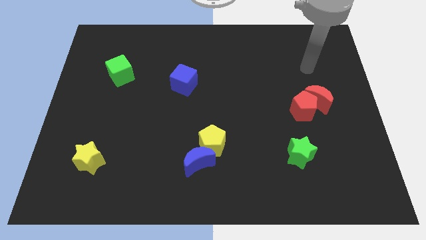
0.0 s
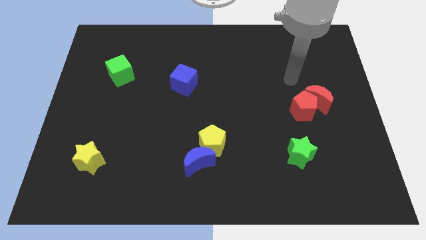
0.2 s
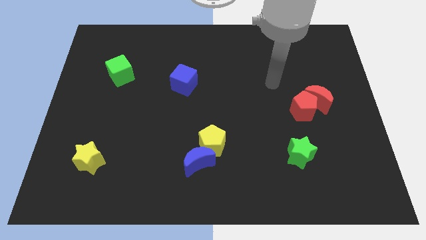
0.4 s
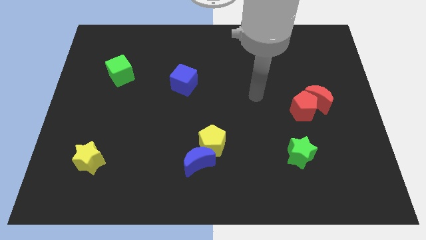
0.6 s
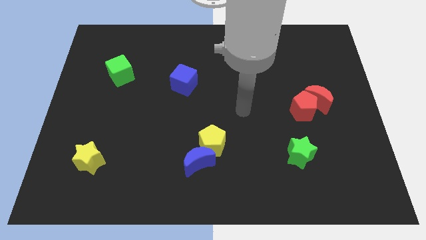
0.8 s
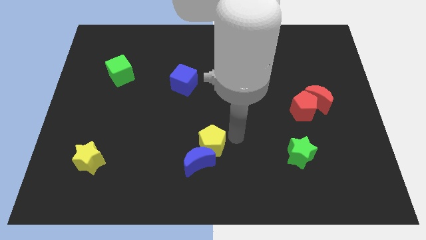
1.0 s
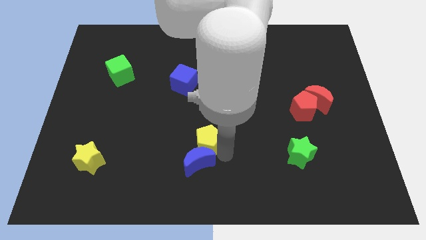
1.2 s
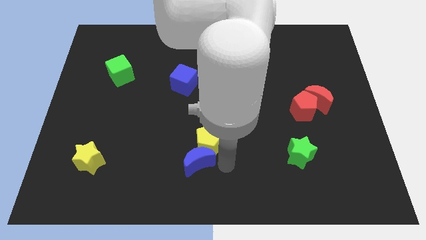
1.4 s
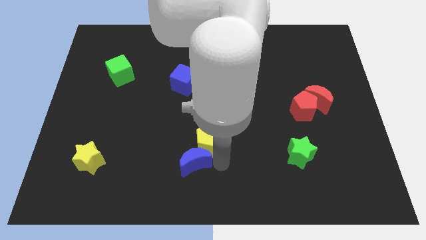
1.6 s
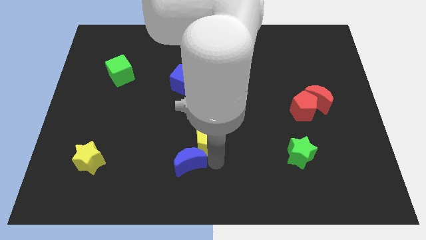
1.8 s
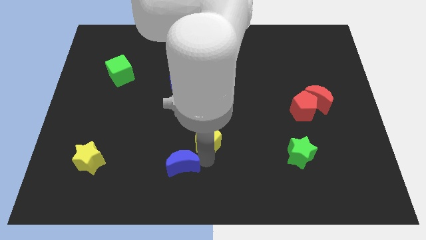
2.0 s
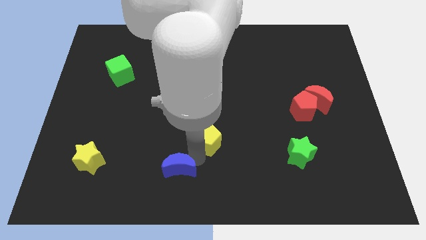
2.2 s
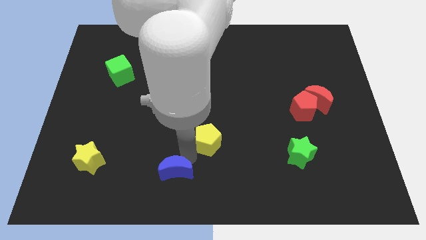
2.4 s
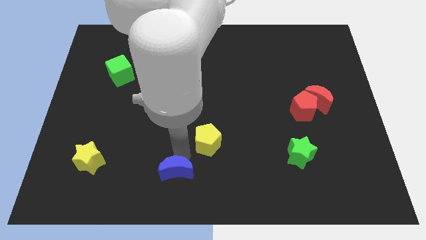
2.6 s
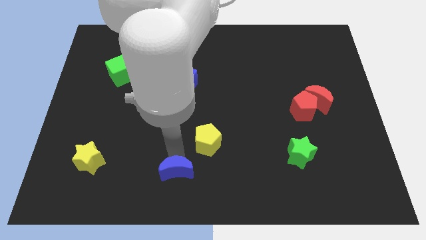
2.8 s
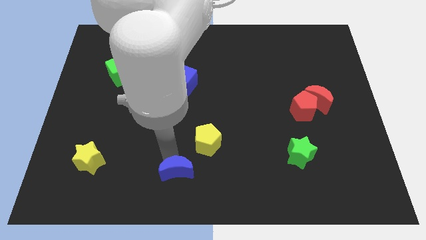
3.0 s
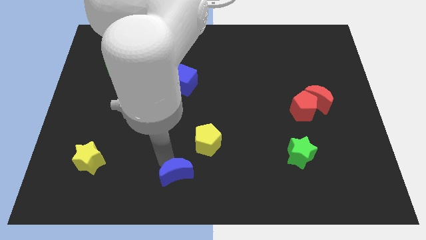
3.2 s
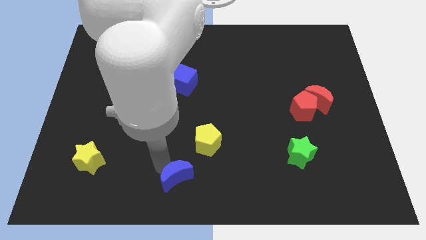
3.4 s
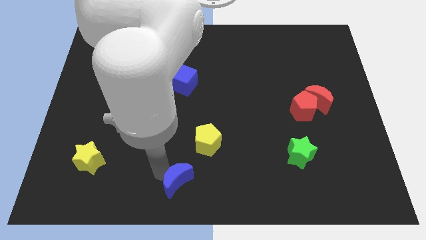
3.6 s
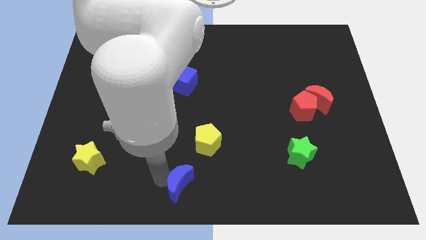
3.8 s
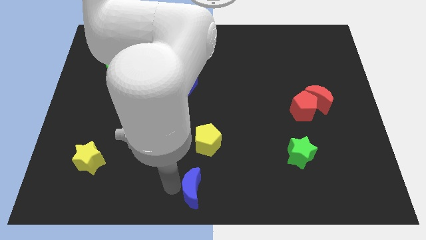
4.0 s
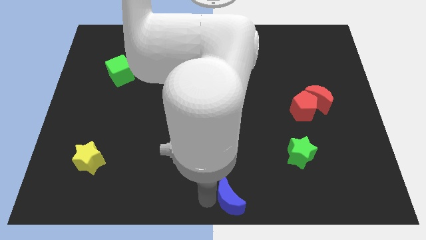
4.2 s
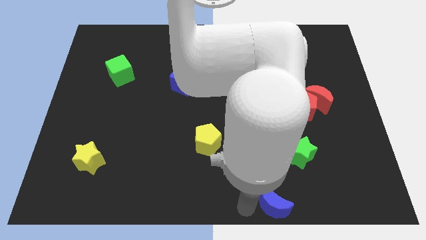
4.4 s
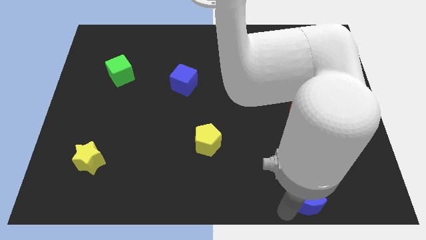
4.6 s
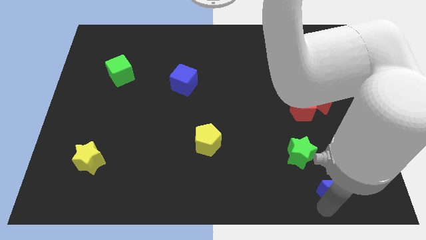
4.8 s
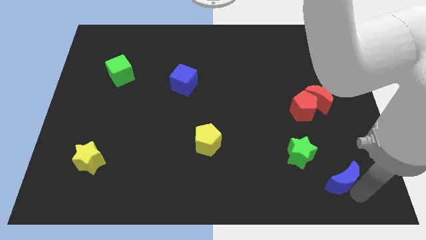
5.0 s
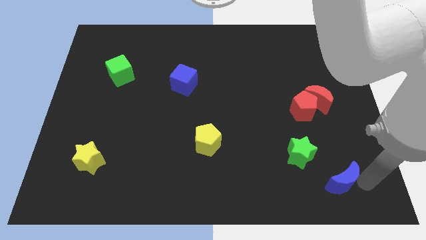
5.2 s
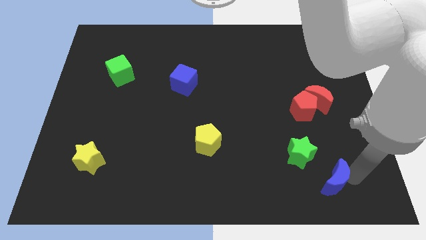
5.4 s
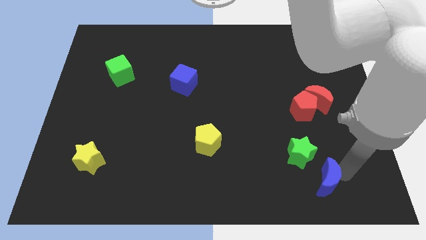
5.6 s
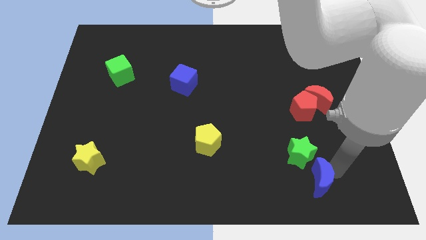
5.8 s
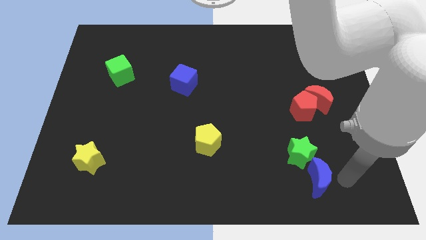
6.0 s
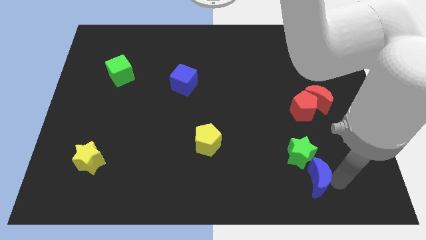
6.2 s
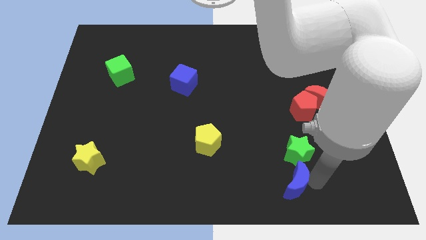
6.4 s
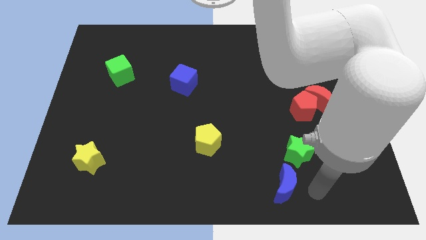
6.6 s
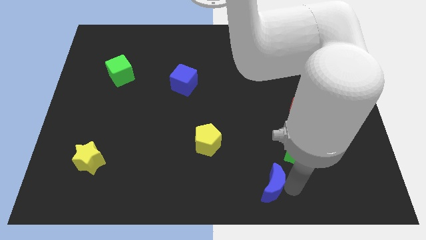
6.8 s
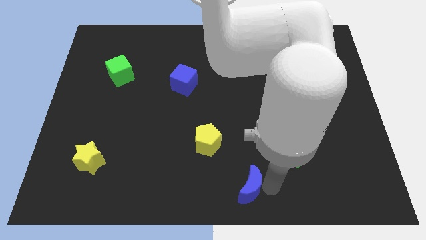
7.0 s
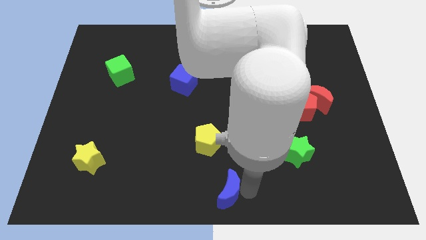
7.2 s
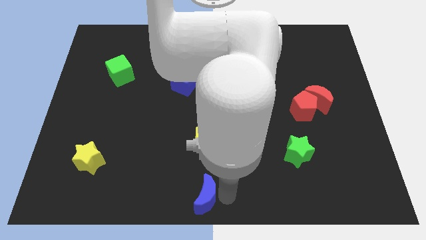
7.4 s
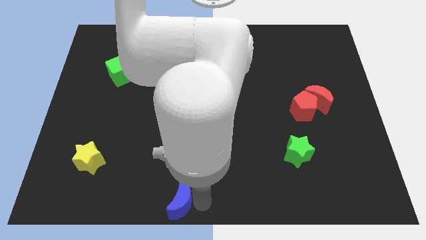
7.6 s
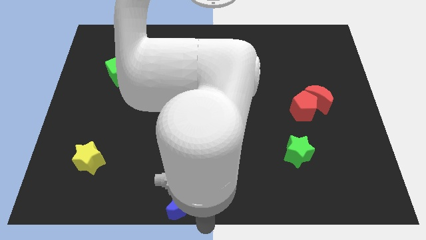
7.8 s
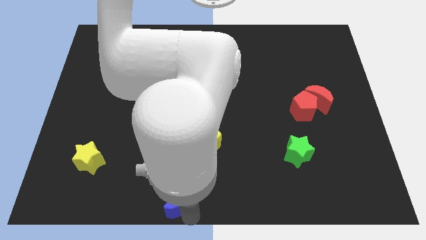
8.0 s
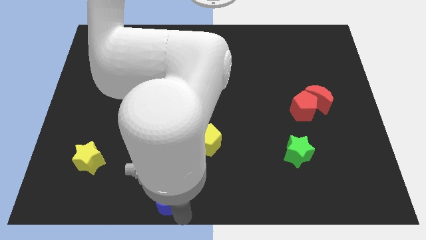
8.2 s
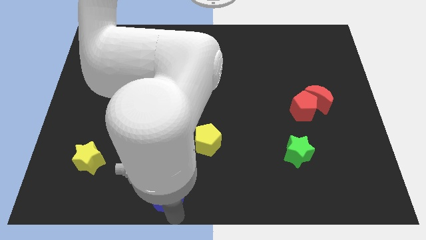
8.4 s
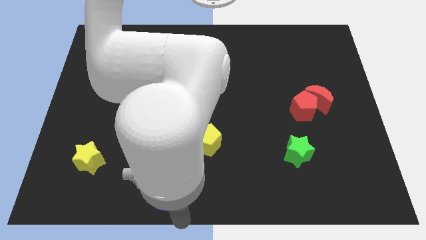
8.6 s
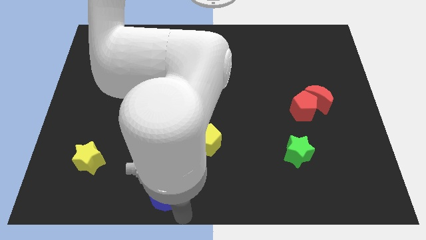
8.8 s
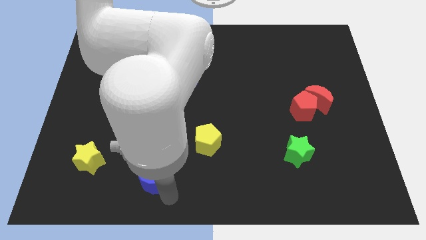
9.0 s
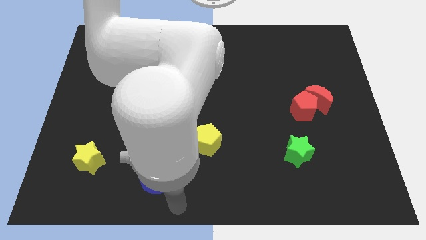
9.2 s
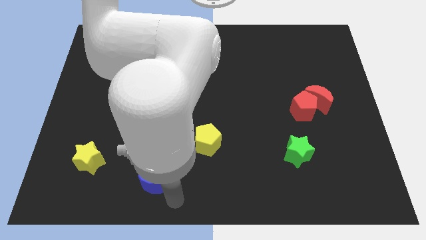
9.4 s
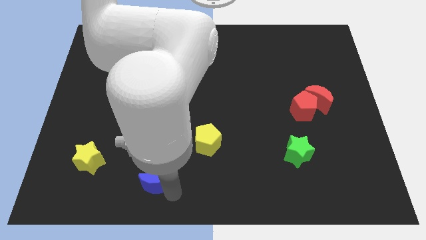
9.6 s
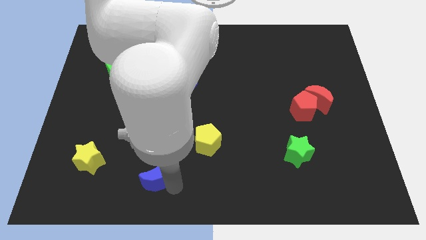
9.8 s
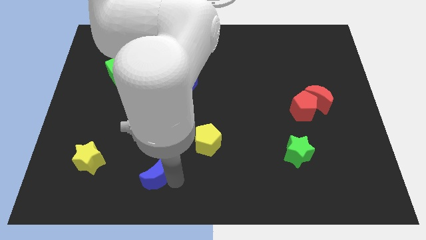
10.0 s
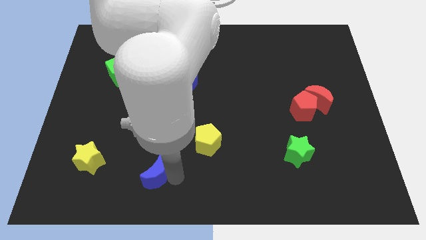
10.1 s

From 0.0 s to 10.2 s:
put the blue moon right of the yellow star

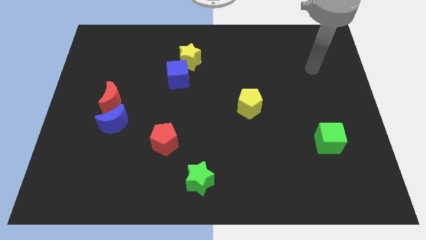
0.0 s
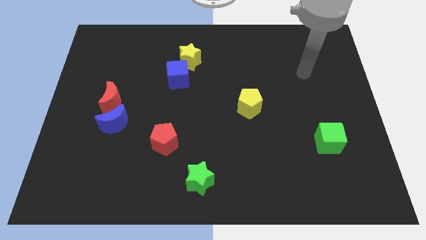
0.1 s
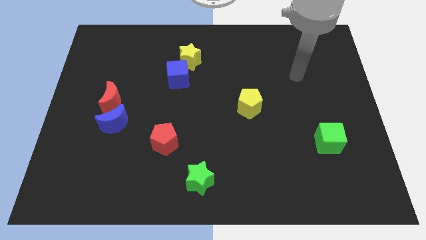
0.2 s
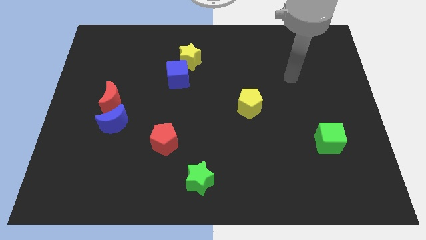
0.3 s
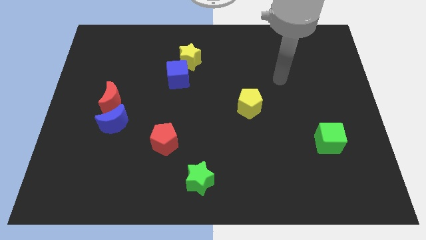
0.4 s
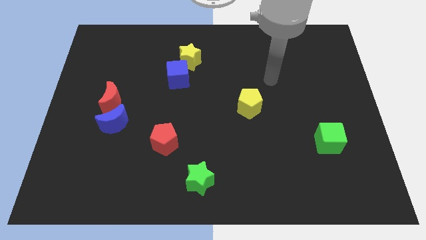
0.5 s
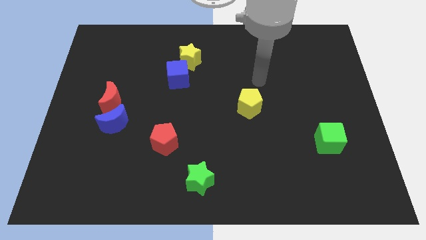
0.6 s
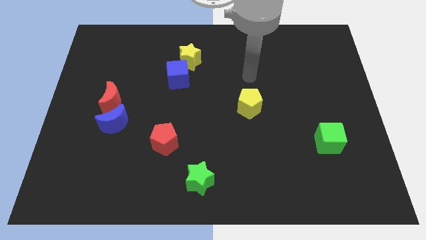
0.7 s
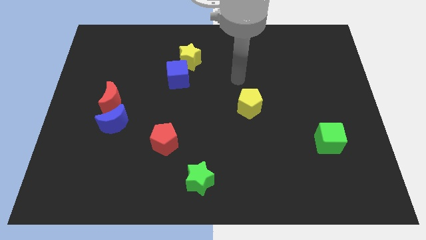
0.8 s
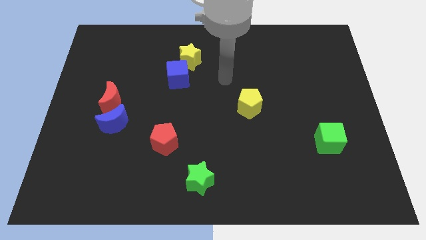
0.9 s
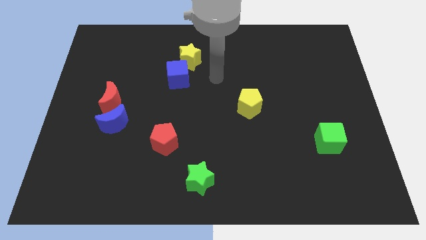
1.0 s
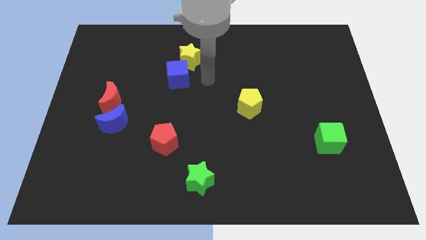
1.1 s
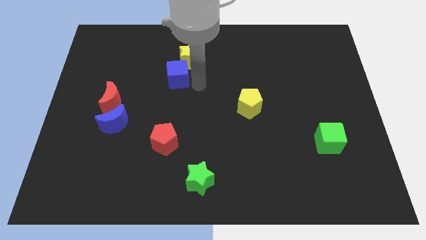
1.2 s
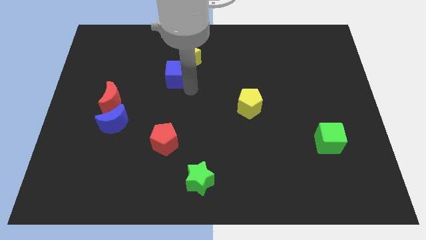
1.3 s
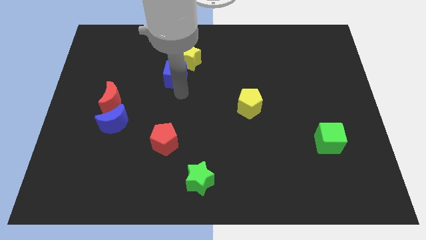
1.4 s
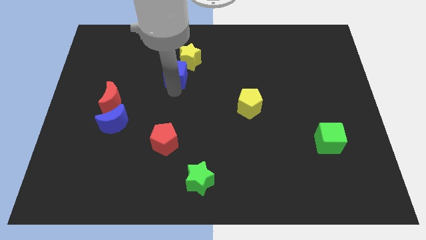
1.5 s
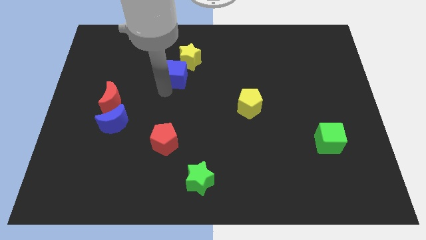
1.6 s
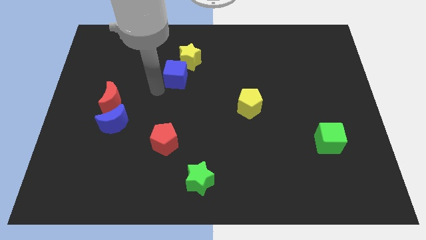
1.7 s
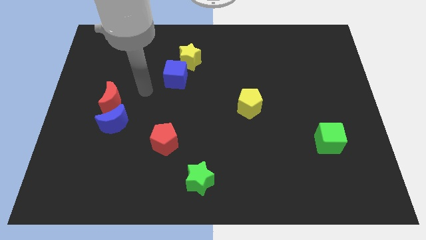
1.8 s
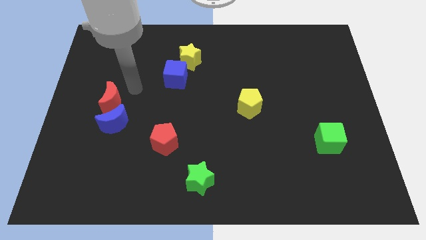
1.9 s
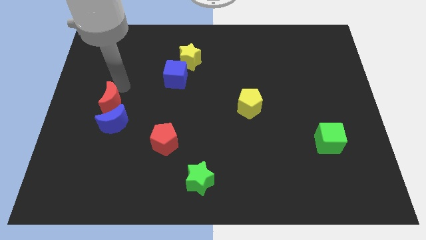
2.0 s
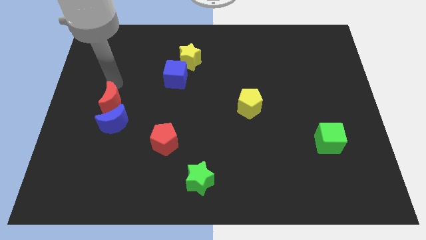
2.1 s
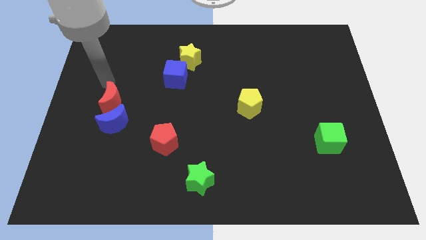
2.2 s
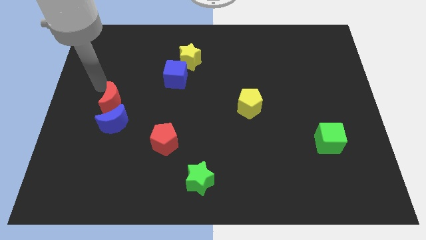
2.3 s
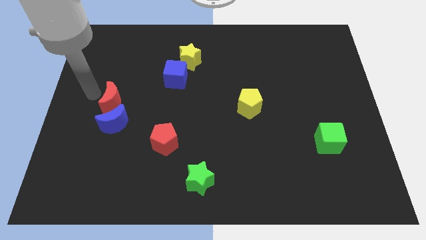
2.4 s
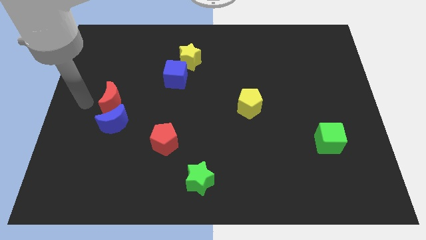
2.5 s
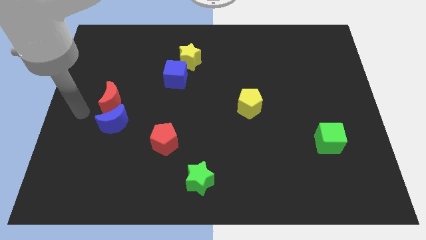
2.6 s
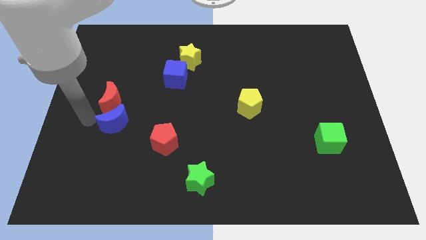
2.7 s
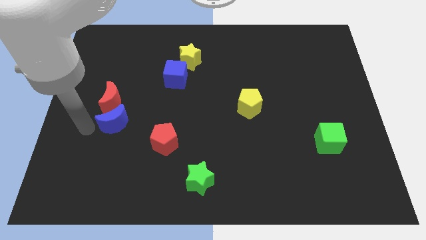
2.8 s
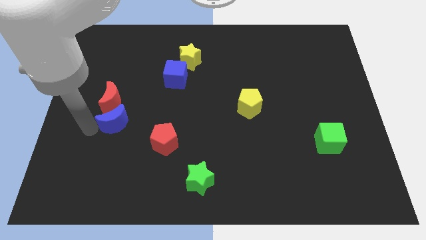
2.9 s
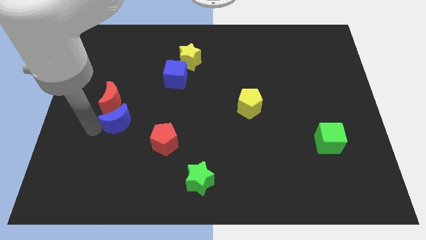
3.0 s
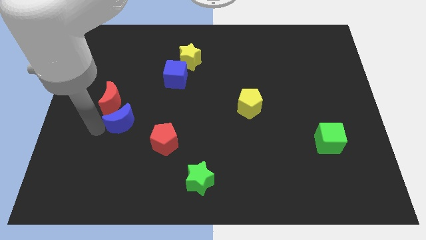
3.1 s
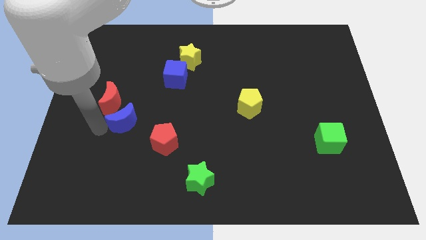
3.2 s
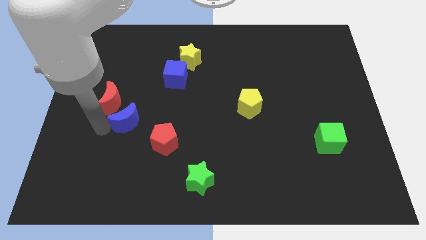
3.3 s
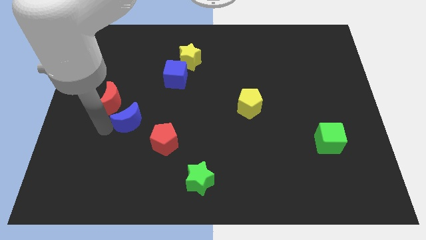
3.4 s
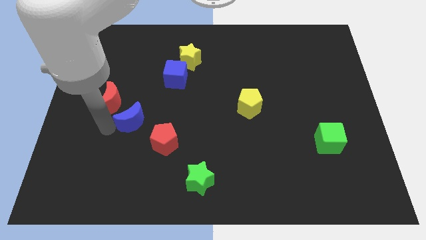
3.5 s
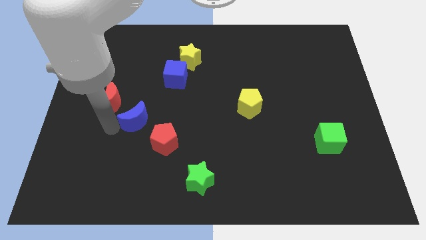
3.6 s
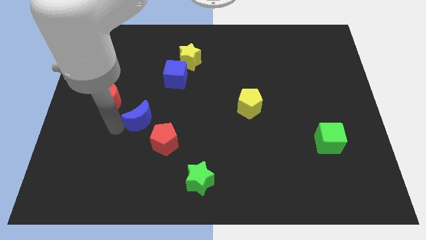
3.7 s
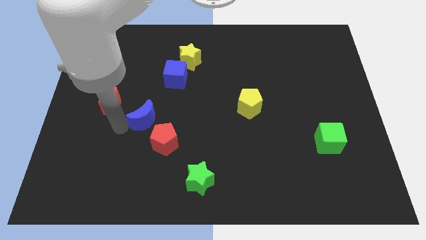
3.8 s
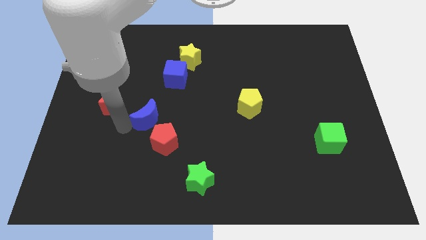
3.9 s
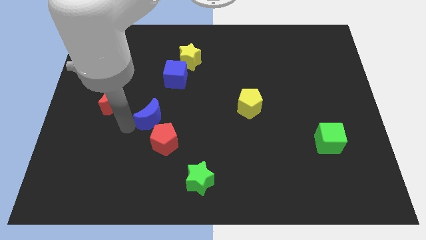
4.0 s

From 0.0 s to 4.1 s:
move the blue moon below the blue cube
